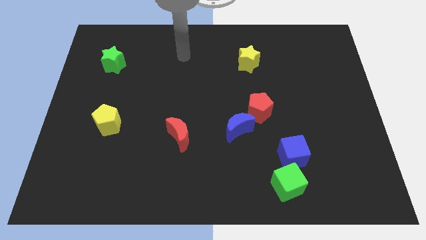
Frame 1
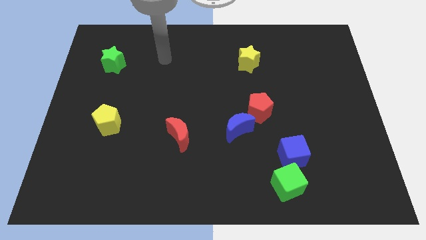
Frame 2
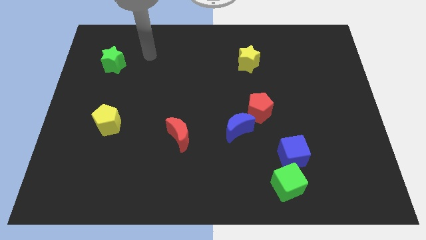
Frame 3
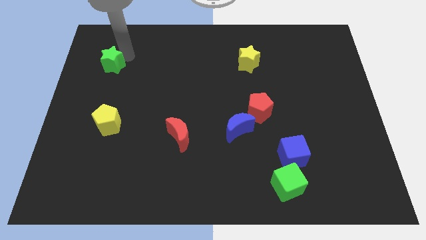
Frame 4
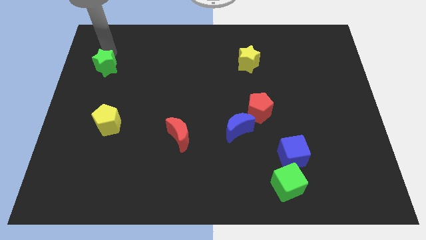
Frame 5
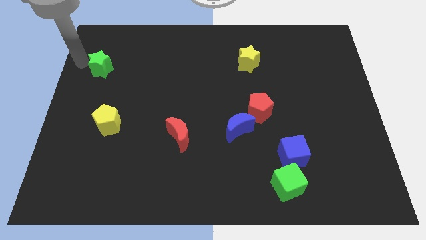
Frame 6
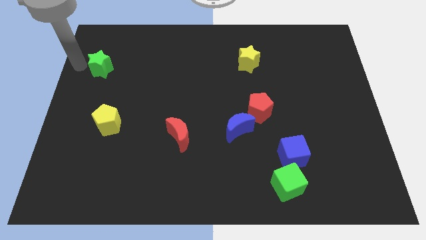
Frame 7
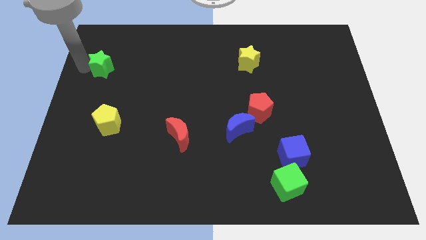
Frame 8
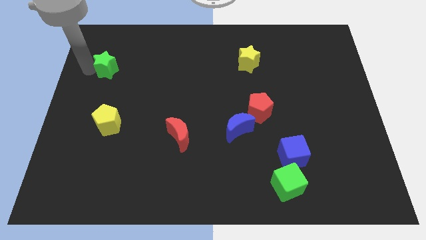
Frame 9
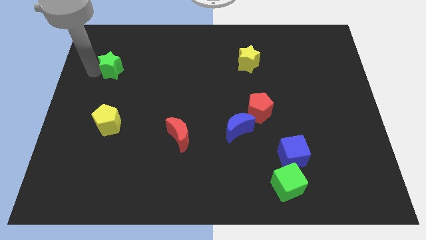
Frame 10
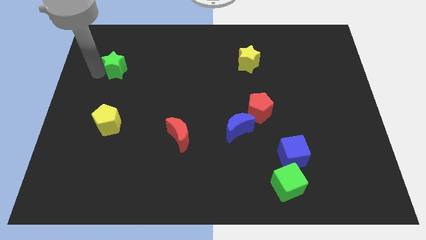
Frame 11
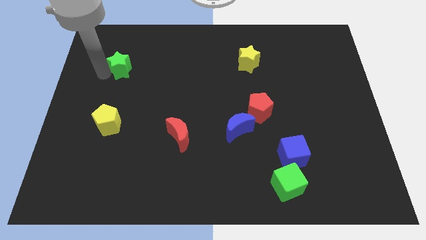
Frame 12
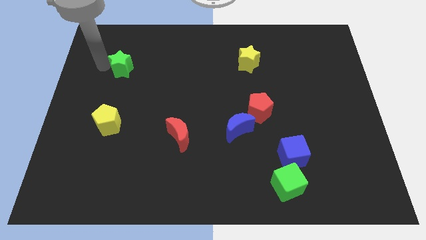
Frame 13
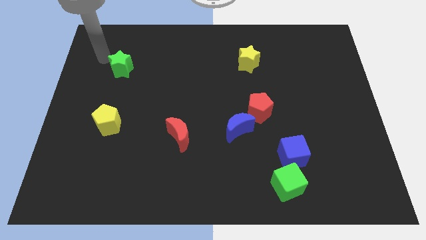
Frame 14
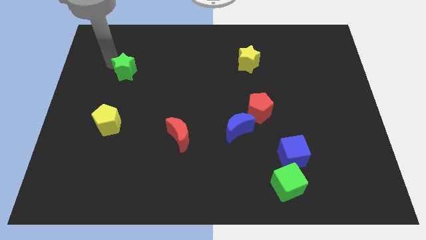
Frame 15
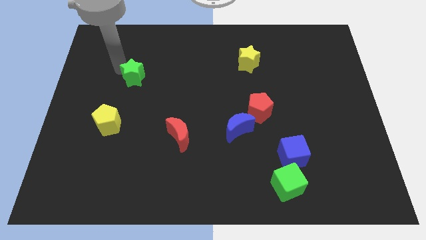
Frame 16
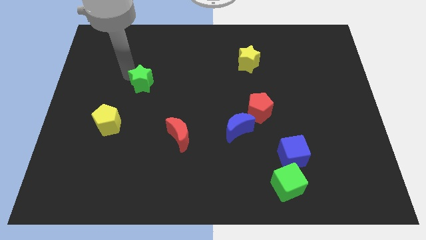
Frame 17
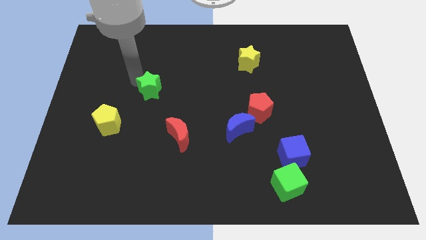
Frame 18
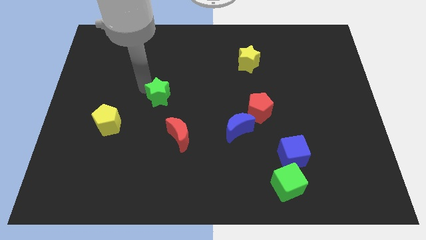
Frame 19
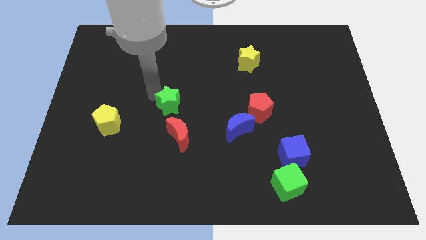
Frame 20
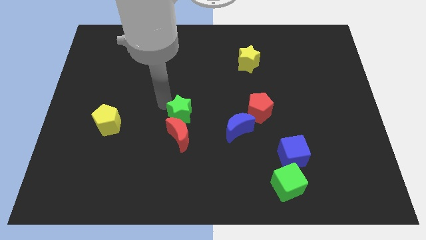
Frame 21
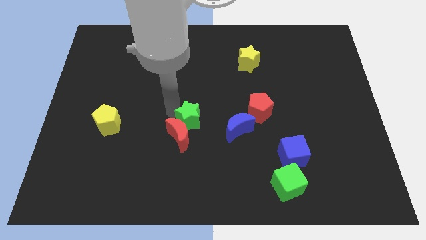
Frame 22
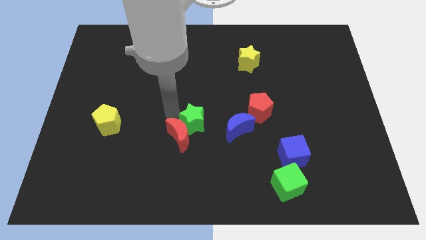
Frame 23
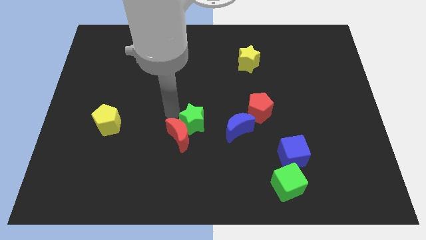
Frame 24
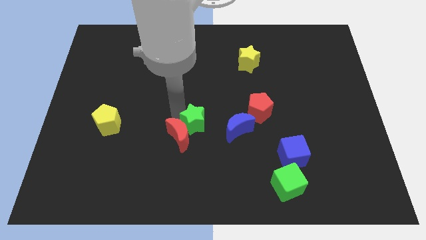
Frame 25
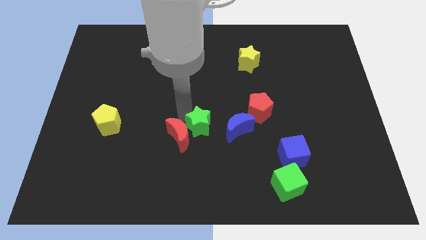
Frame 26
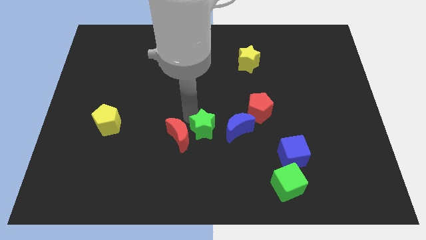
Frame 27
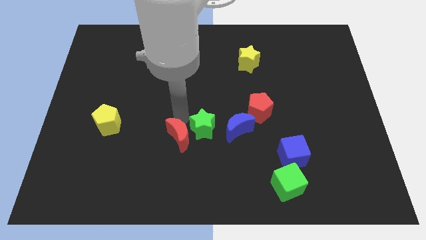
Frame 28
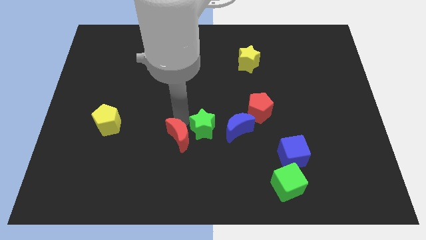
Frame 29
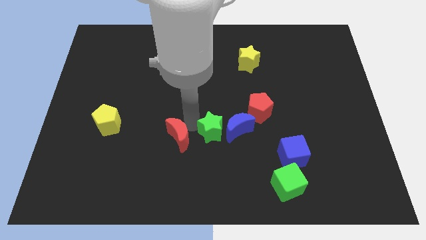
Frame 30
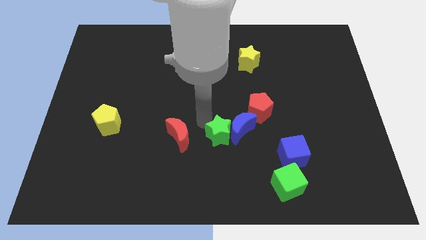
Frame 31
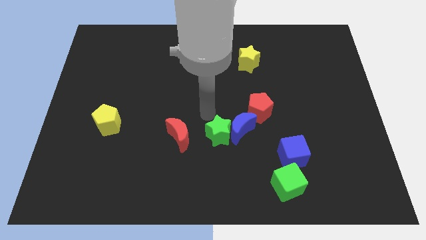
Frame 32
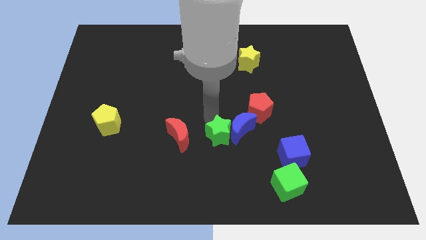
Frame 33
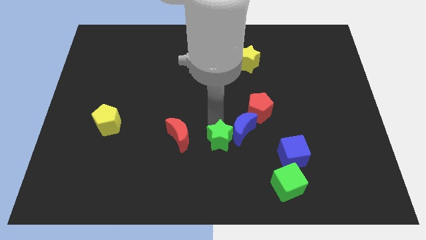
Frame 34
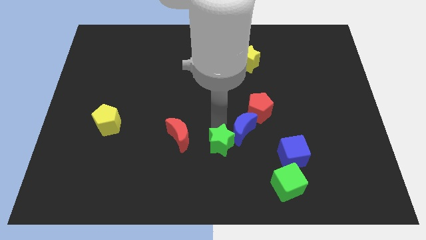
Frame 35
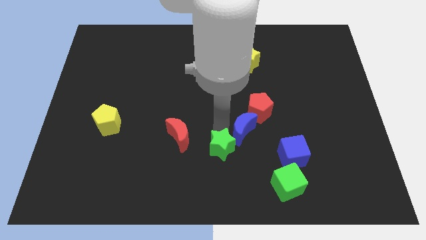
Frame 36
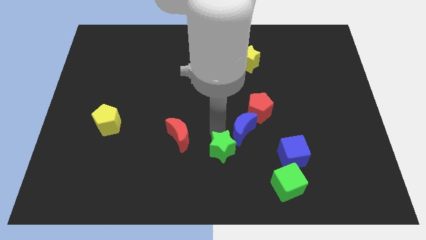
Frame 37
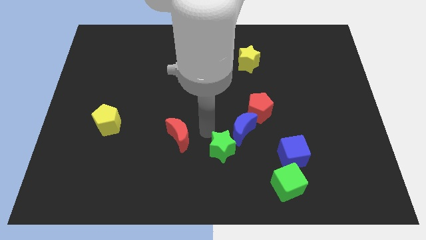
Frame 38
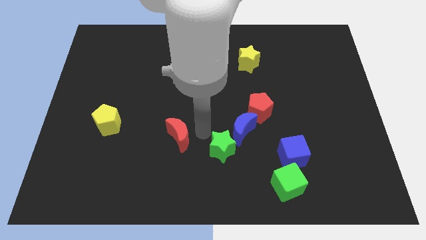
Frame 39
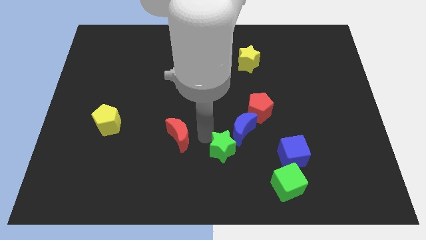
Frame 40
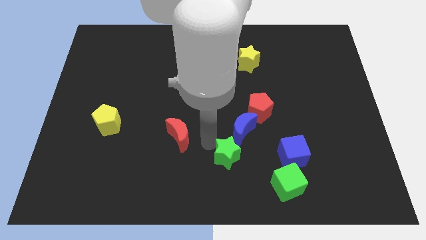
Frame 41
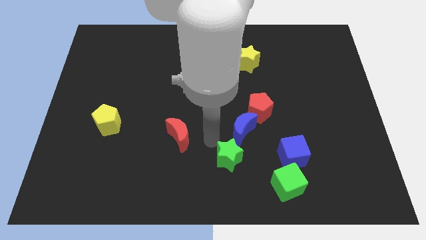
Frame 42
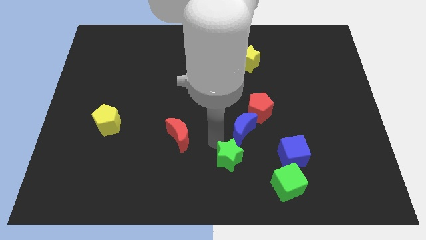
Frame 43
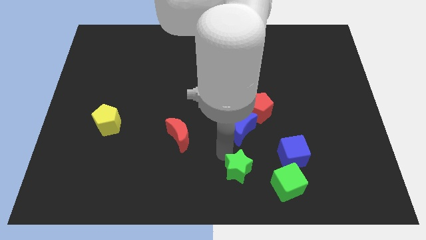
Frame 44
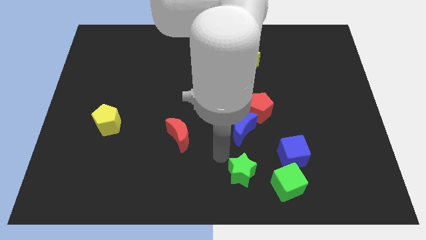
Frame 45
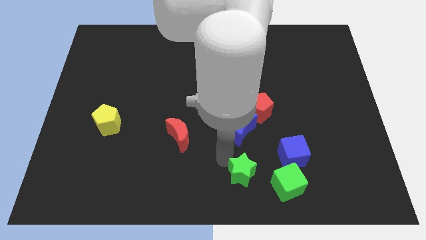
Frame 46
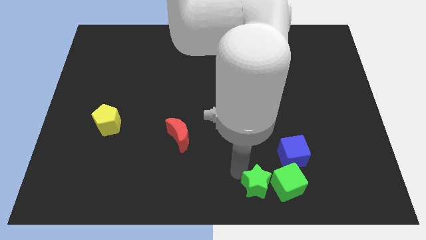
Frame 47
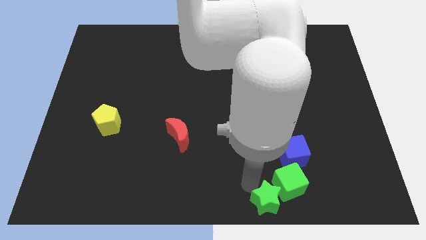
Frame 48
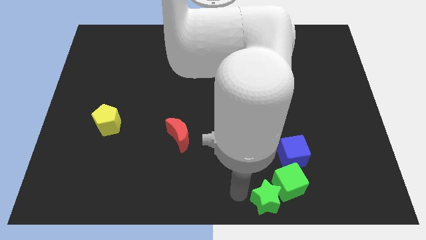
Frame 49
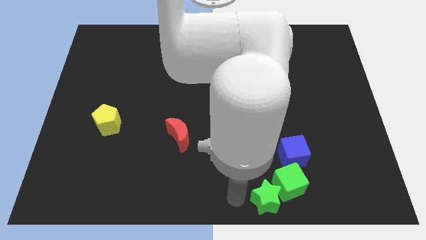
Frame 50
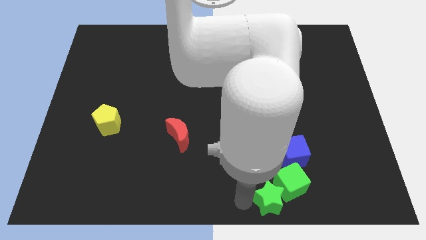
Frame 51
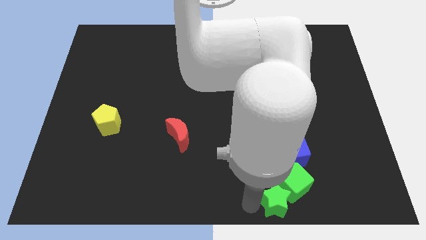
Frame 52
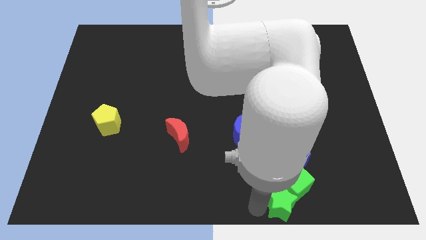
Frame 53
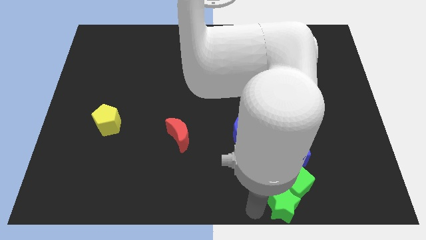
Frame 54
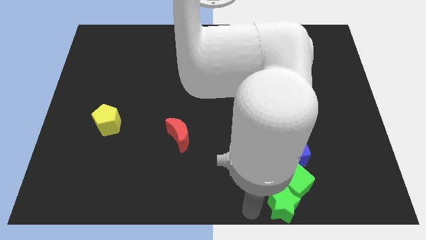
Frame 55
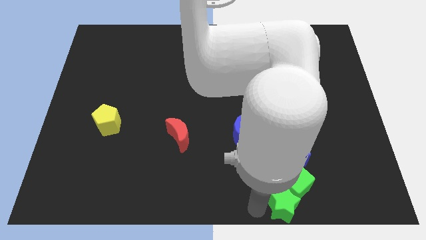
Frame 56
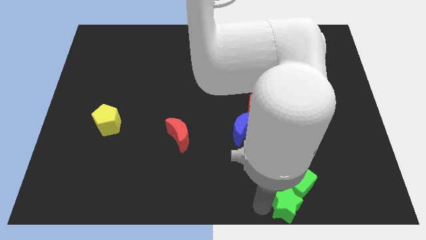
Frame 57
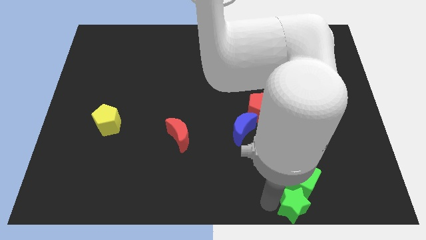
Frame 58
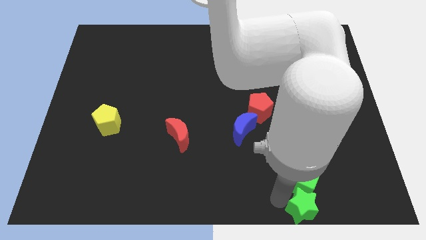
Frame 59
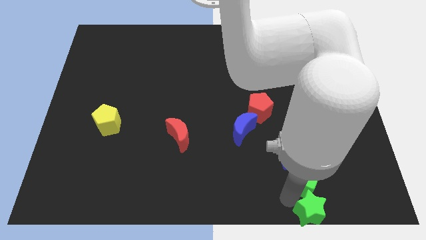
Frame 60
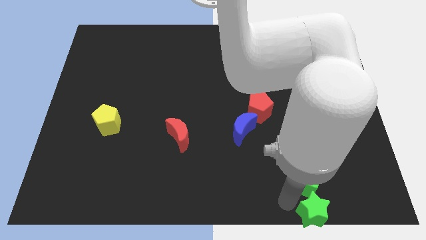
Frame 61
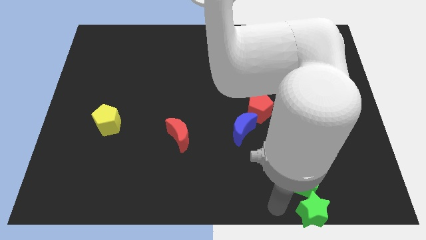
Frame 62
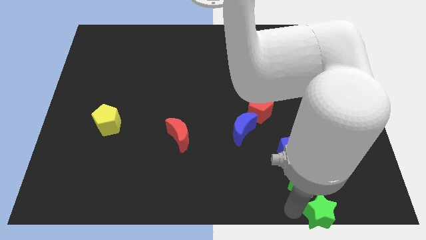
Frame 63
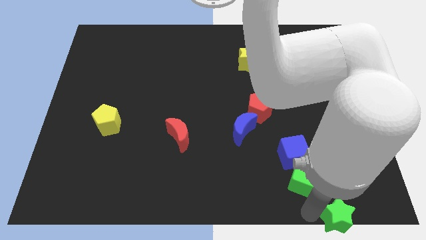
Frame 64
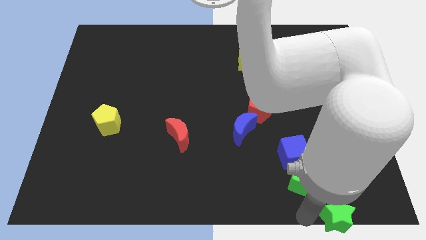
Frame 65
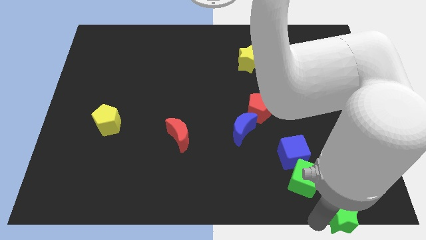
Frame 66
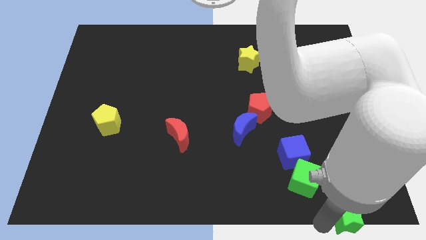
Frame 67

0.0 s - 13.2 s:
push the green star to the bottom right corner

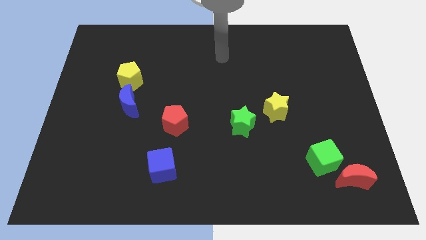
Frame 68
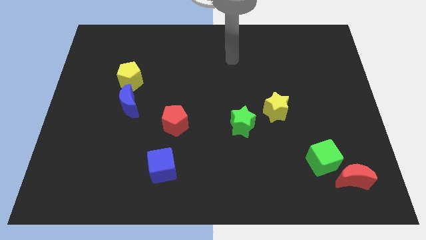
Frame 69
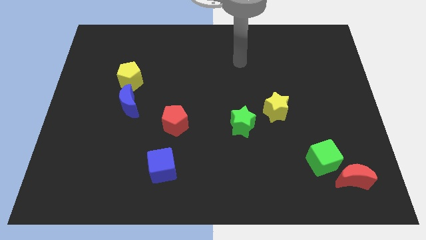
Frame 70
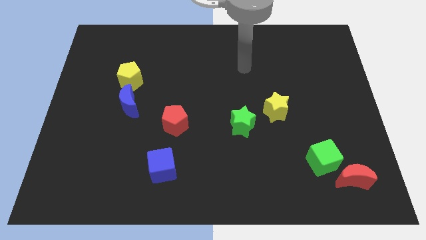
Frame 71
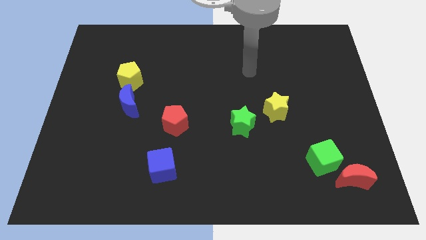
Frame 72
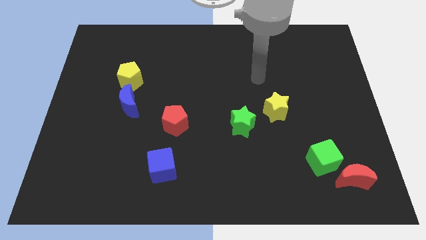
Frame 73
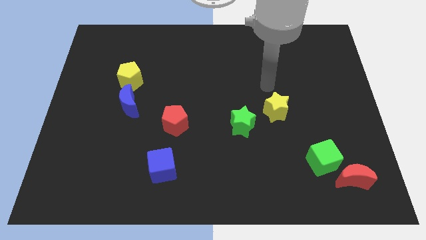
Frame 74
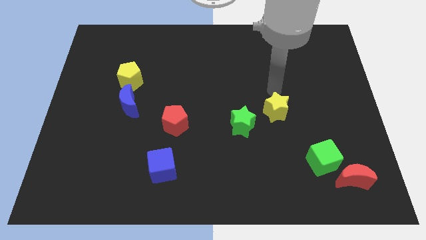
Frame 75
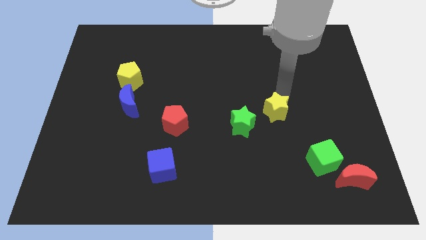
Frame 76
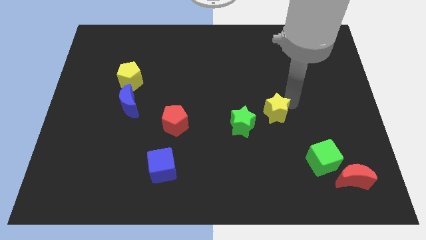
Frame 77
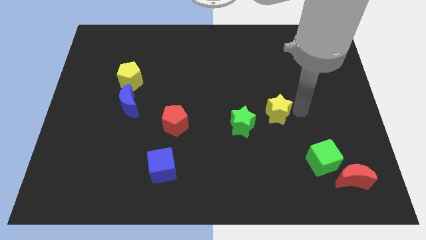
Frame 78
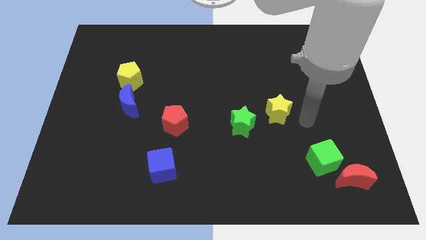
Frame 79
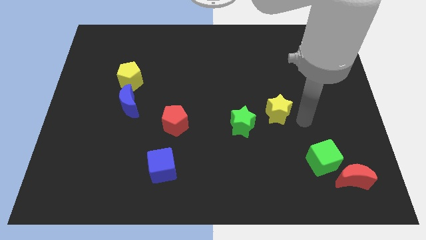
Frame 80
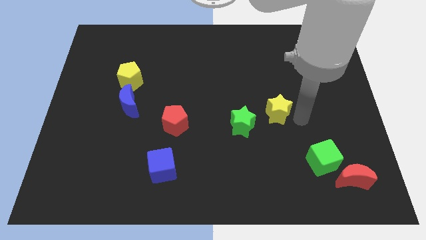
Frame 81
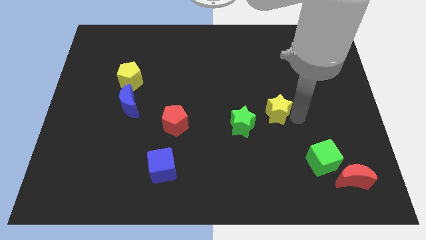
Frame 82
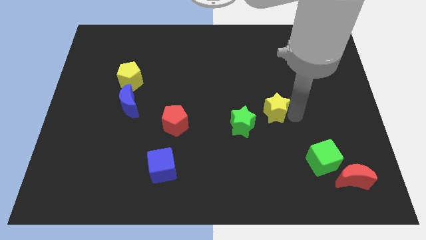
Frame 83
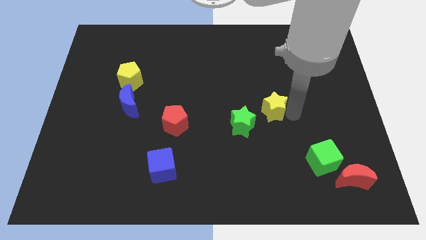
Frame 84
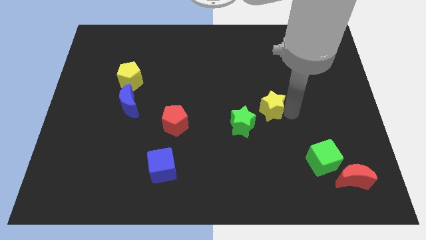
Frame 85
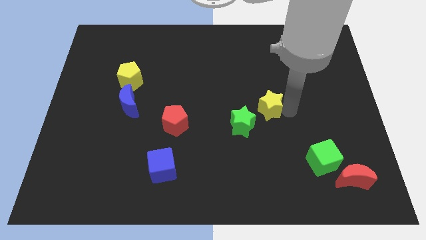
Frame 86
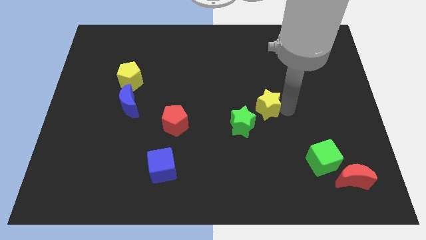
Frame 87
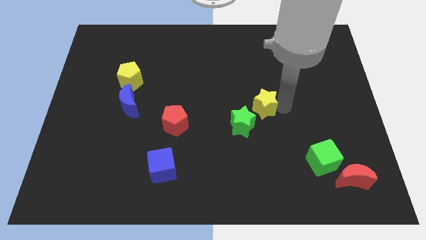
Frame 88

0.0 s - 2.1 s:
move the yellow star to the center of the board
